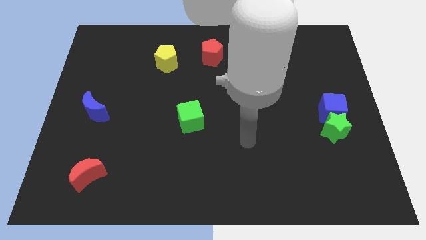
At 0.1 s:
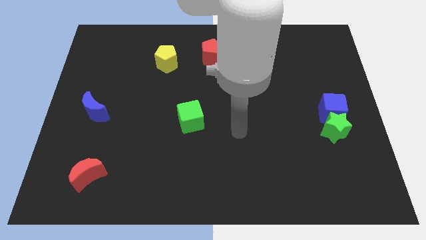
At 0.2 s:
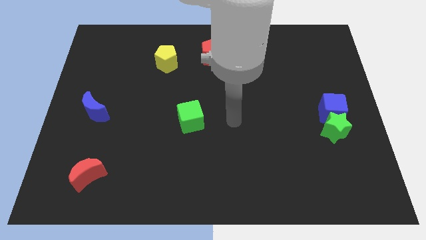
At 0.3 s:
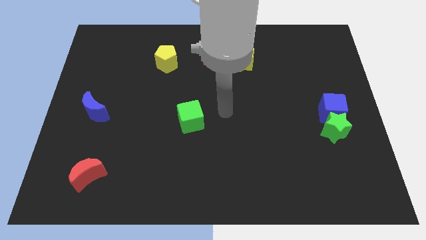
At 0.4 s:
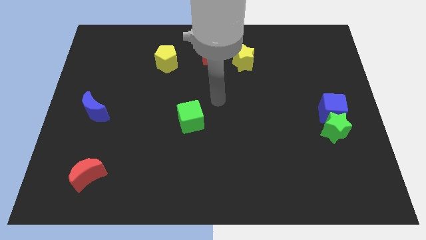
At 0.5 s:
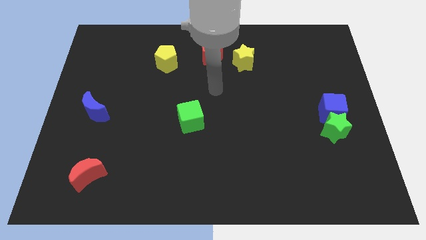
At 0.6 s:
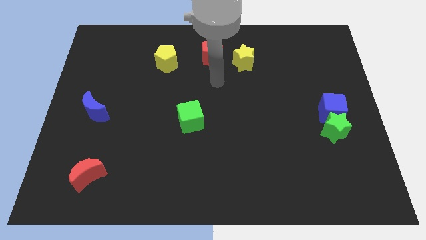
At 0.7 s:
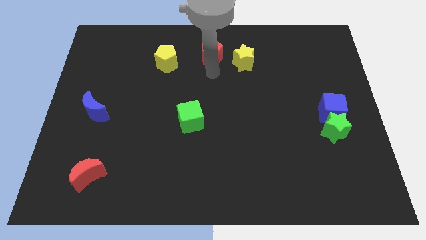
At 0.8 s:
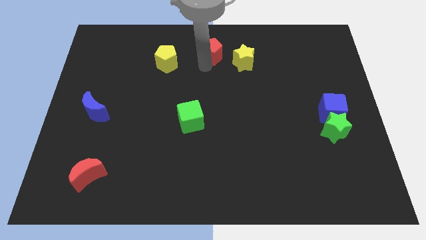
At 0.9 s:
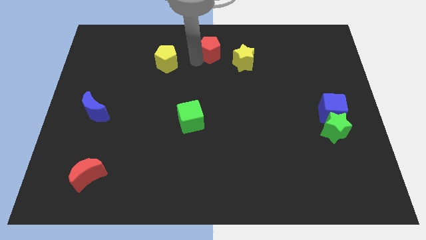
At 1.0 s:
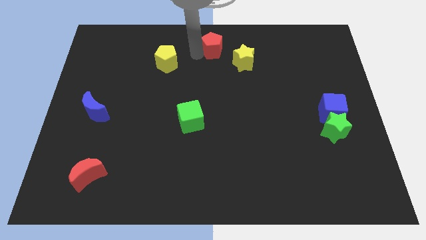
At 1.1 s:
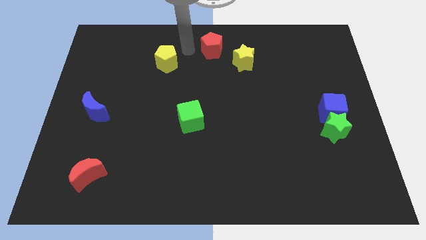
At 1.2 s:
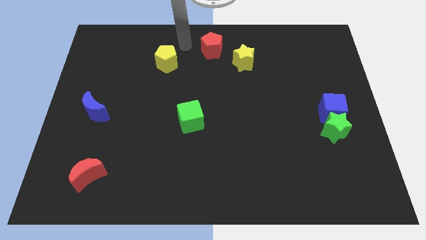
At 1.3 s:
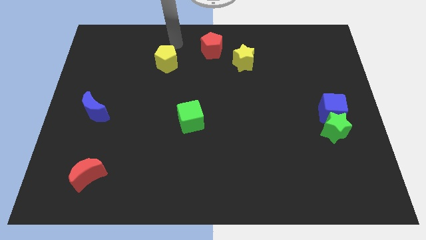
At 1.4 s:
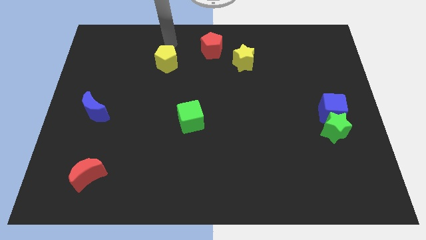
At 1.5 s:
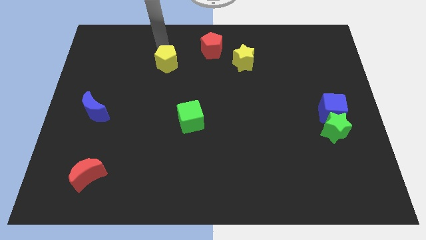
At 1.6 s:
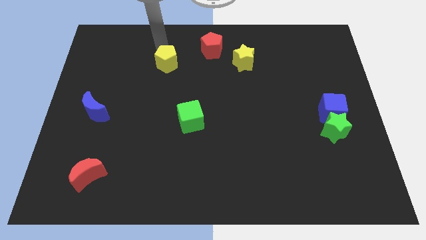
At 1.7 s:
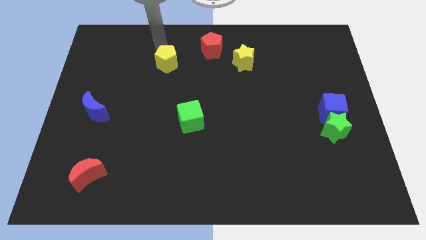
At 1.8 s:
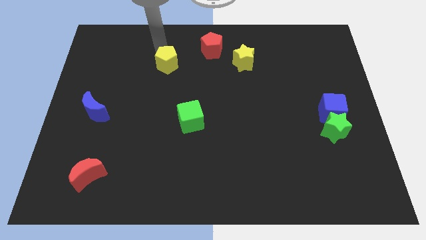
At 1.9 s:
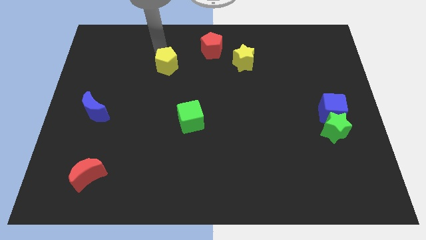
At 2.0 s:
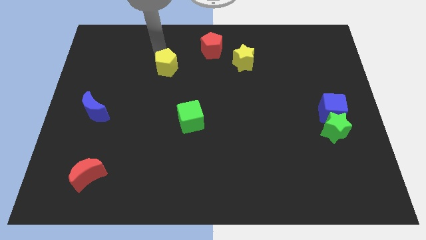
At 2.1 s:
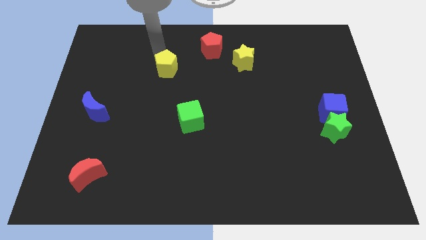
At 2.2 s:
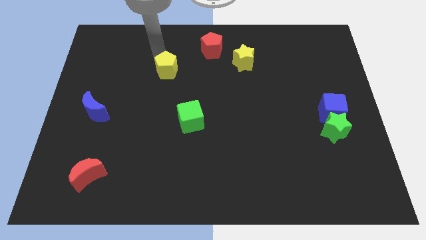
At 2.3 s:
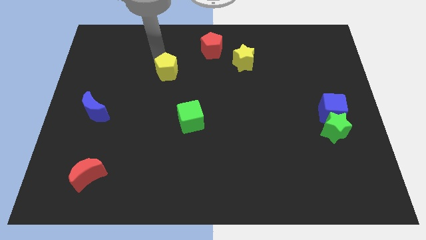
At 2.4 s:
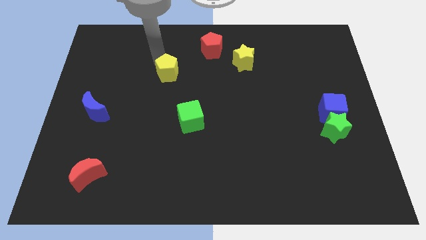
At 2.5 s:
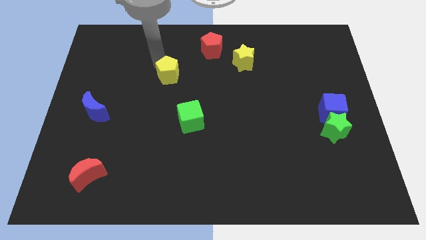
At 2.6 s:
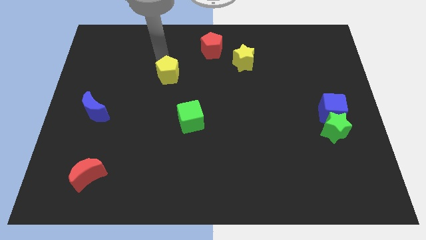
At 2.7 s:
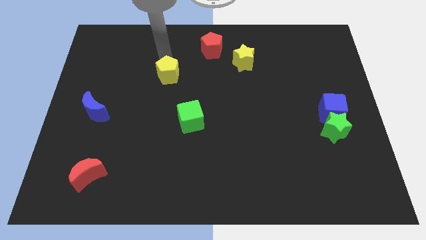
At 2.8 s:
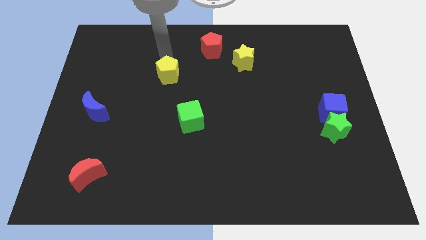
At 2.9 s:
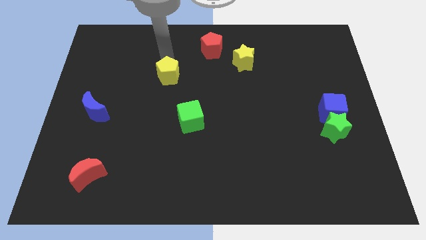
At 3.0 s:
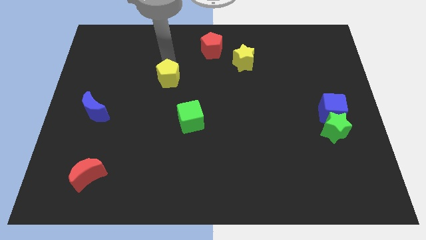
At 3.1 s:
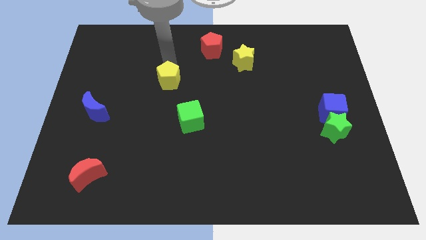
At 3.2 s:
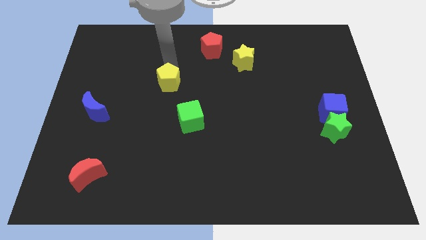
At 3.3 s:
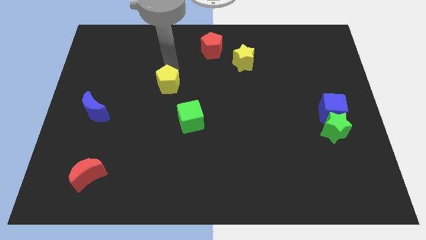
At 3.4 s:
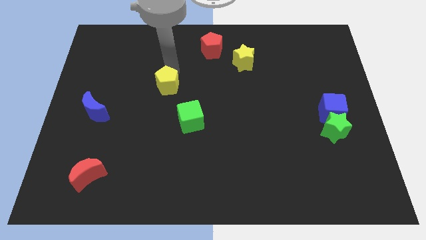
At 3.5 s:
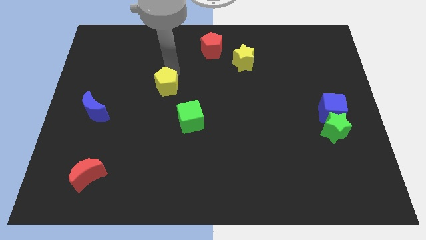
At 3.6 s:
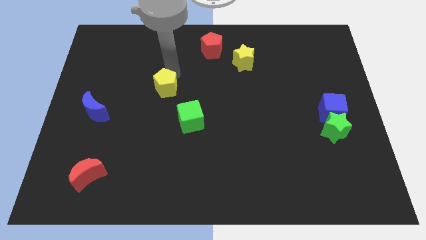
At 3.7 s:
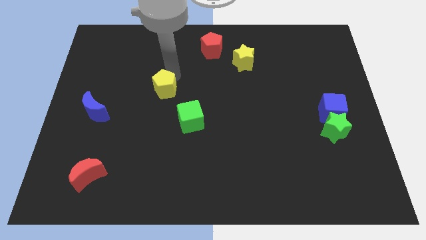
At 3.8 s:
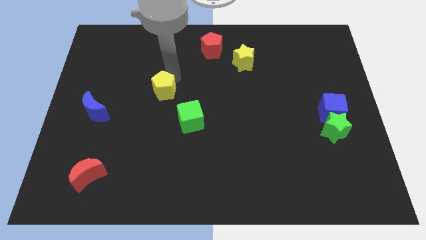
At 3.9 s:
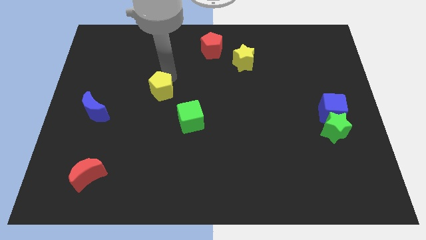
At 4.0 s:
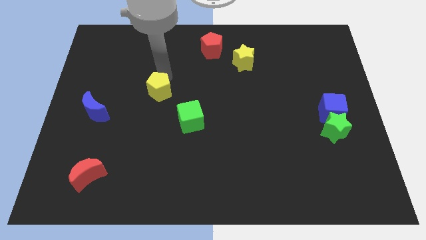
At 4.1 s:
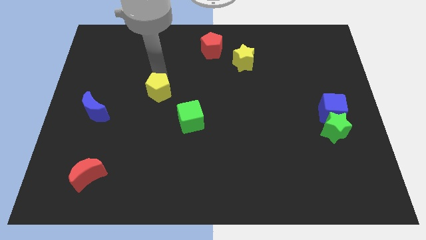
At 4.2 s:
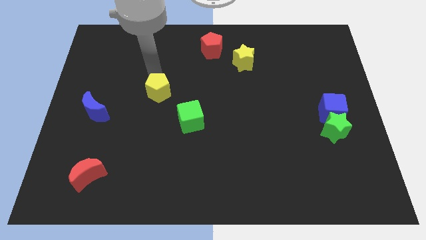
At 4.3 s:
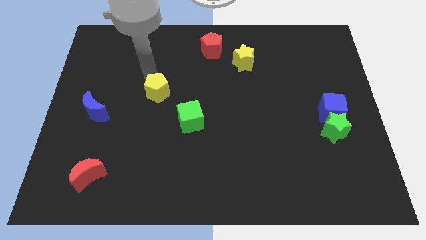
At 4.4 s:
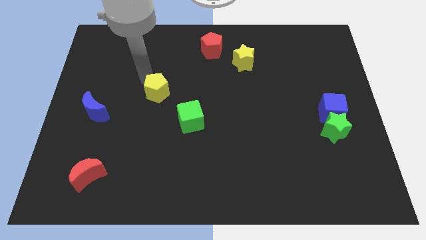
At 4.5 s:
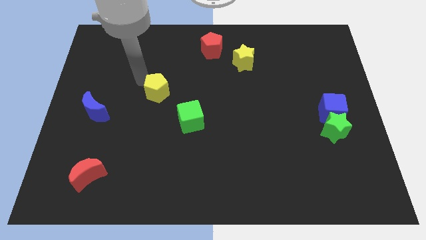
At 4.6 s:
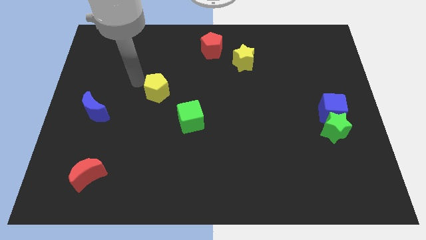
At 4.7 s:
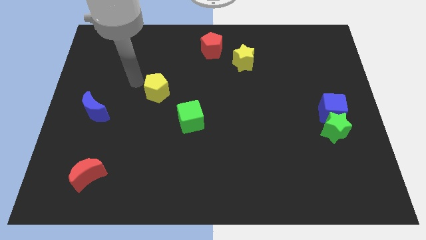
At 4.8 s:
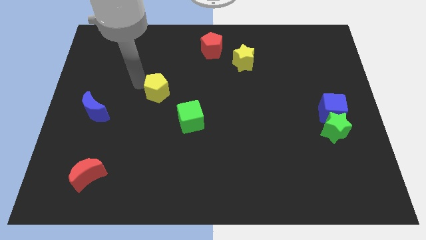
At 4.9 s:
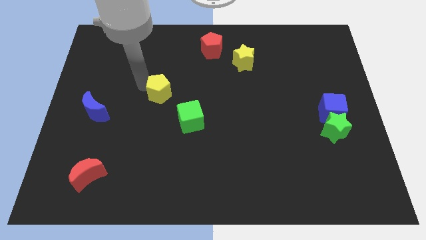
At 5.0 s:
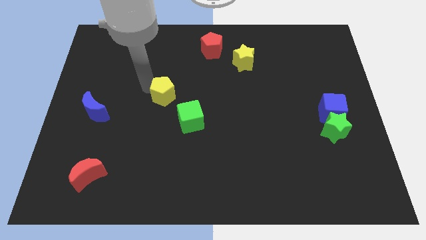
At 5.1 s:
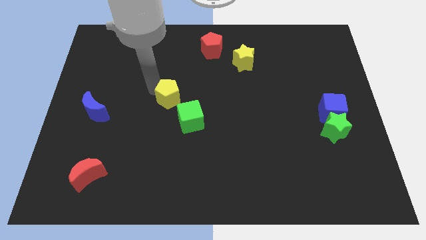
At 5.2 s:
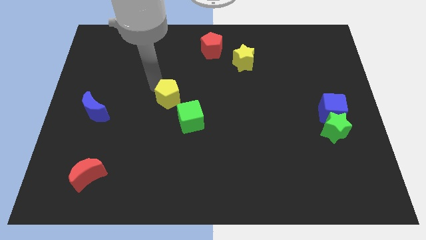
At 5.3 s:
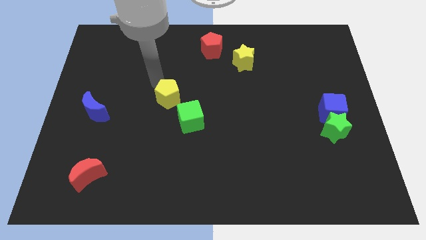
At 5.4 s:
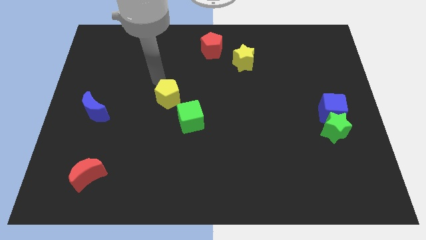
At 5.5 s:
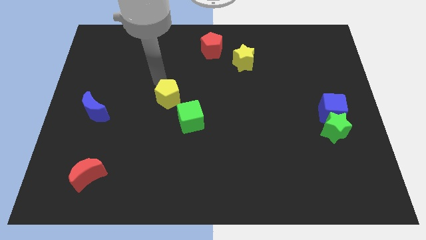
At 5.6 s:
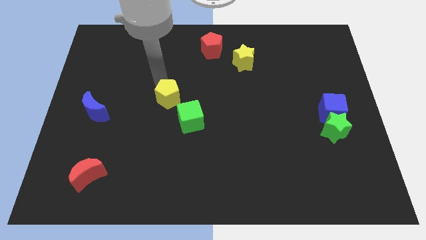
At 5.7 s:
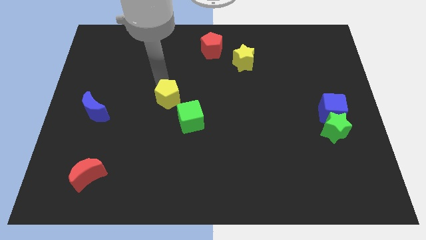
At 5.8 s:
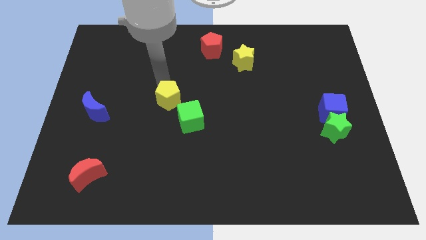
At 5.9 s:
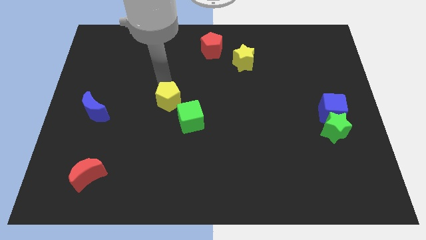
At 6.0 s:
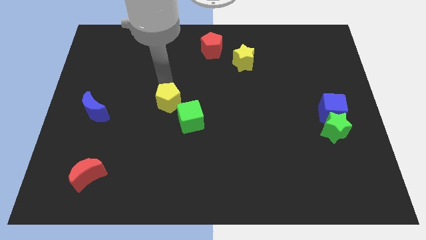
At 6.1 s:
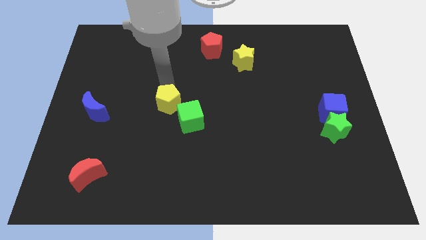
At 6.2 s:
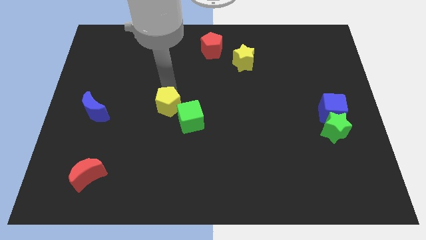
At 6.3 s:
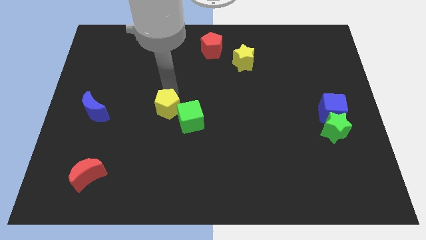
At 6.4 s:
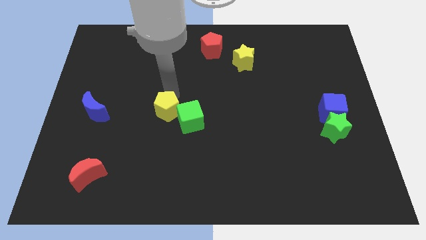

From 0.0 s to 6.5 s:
push the yellow pentagon towards the green cube

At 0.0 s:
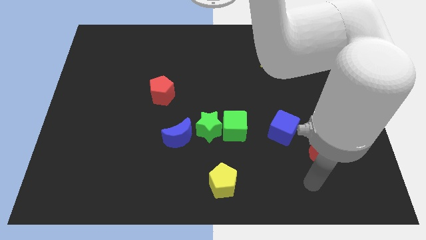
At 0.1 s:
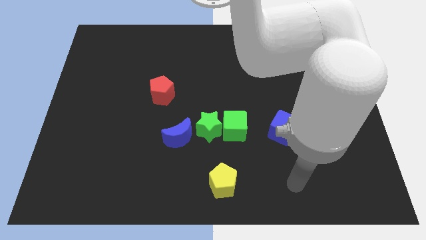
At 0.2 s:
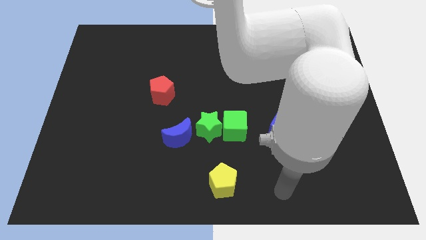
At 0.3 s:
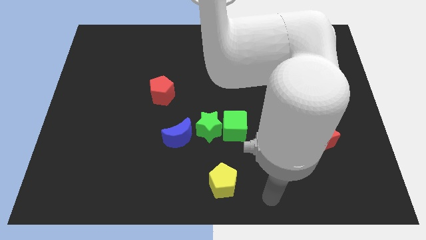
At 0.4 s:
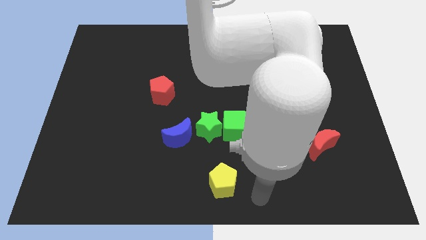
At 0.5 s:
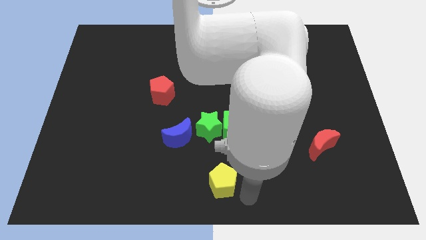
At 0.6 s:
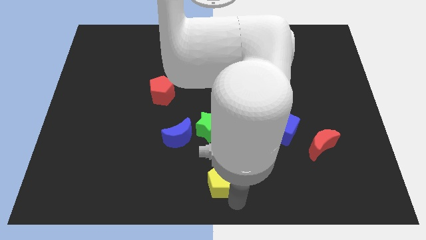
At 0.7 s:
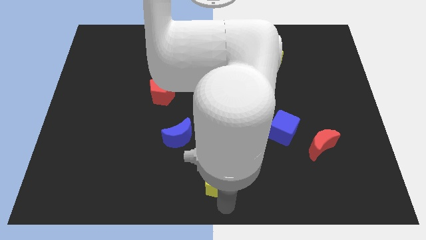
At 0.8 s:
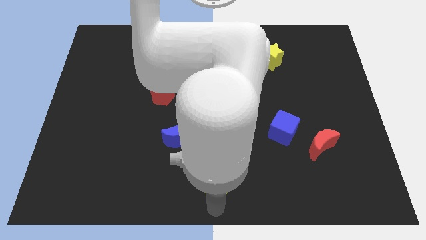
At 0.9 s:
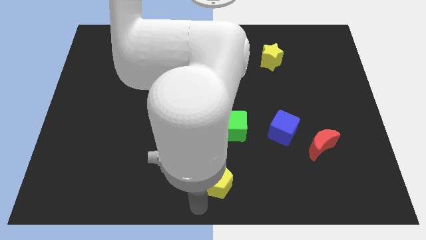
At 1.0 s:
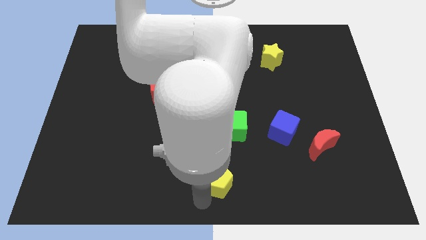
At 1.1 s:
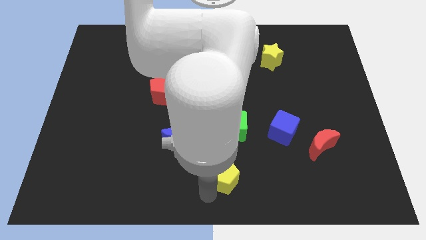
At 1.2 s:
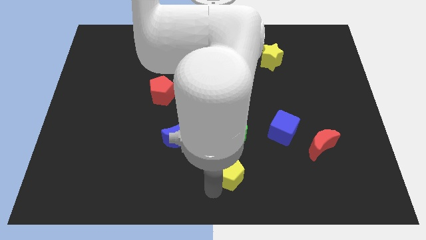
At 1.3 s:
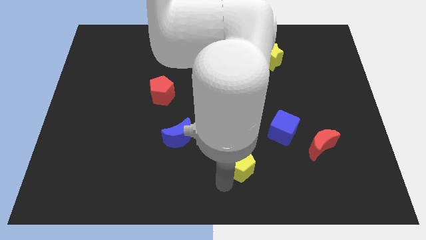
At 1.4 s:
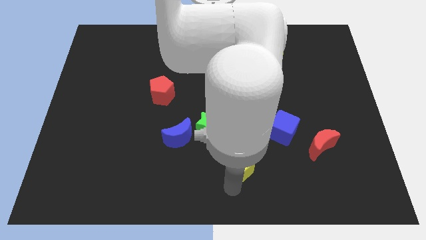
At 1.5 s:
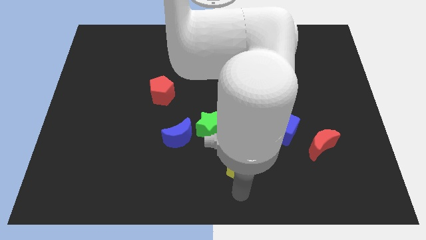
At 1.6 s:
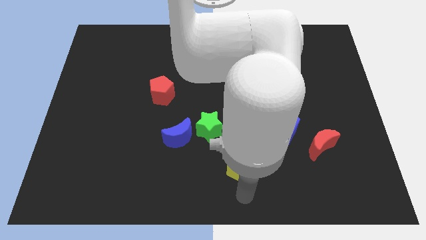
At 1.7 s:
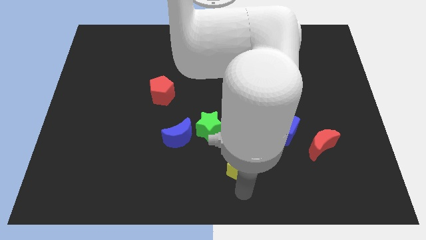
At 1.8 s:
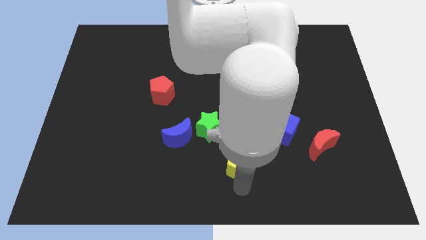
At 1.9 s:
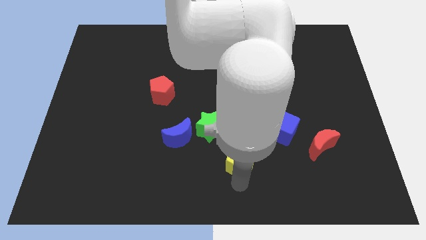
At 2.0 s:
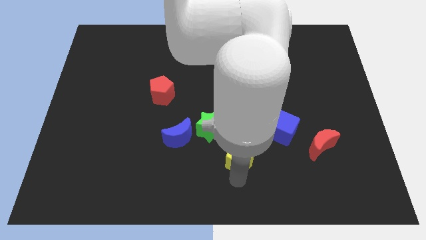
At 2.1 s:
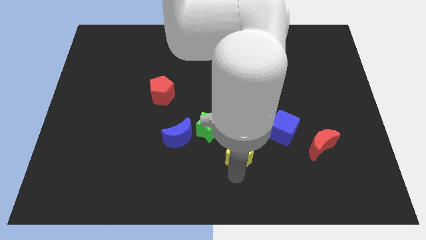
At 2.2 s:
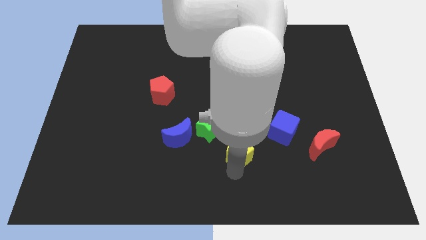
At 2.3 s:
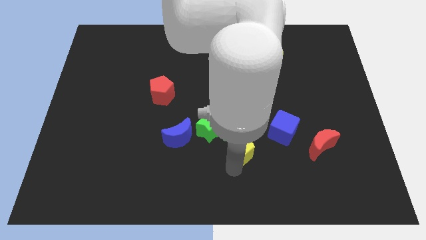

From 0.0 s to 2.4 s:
move the yellow pentagon towards the green cube
